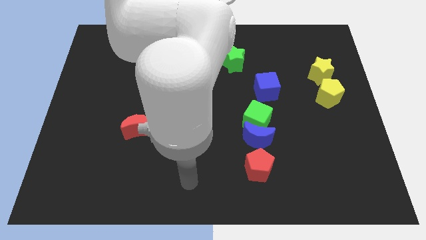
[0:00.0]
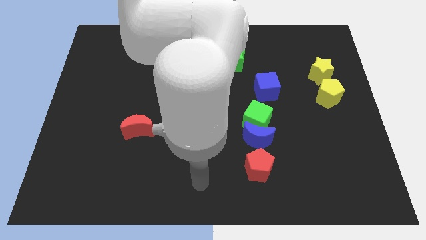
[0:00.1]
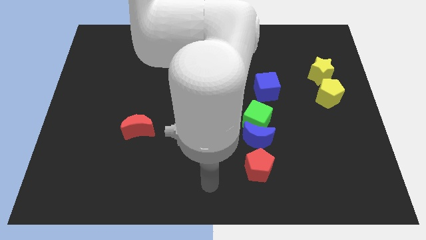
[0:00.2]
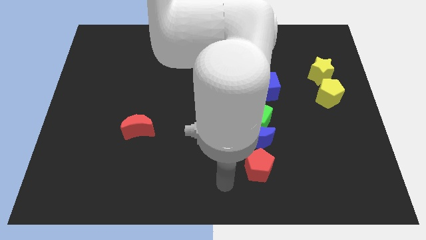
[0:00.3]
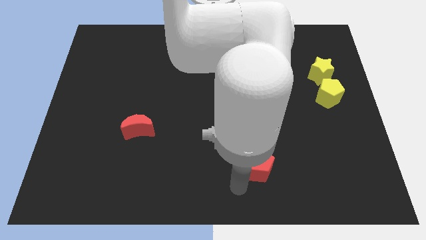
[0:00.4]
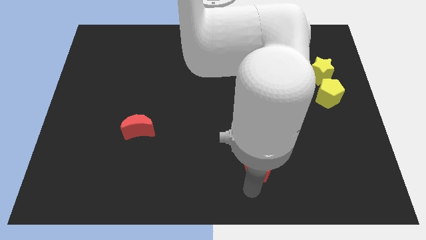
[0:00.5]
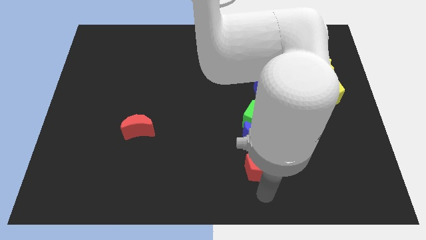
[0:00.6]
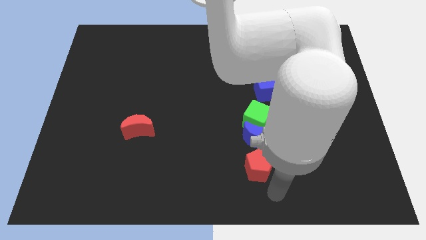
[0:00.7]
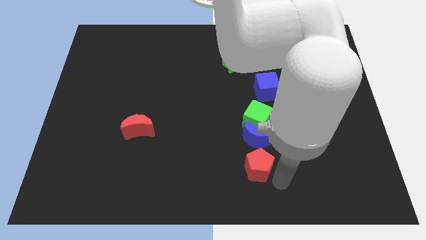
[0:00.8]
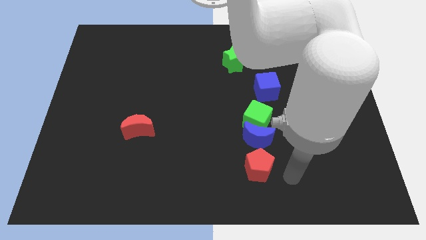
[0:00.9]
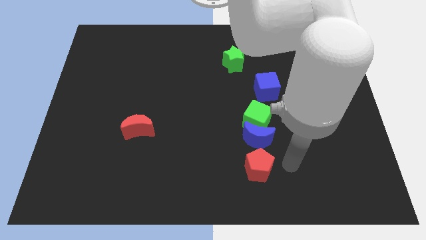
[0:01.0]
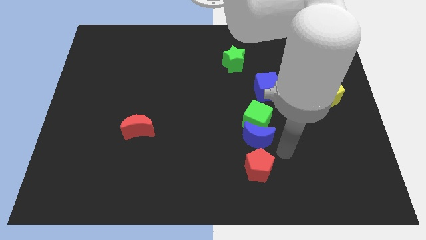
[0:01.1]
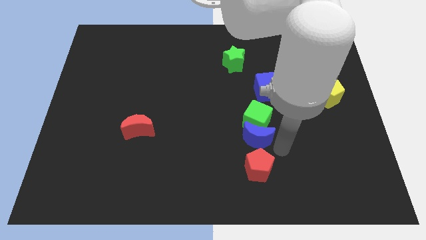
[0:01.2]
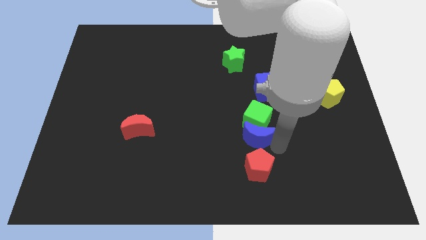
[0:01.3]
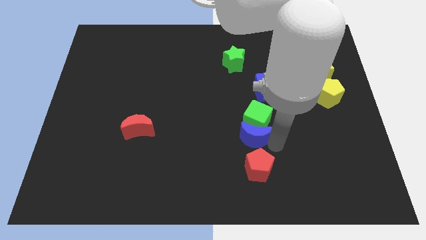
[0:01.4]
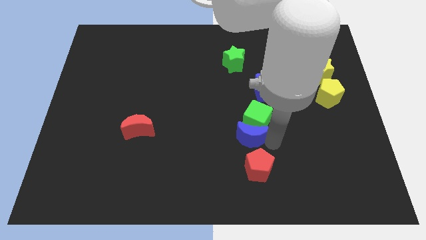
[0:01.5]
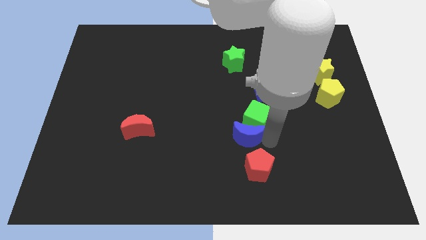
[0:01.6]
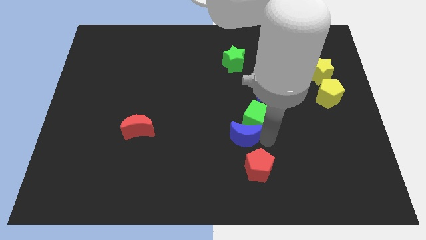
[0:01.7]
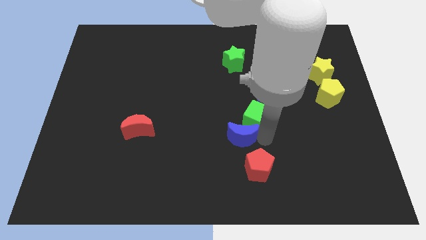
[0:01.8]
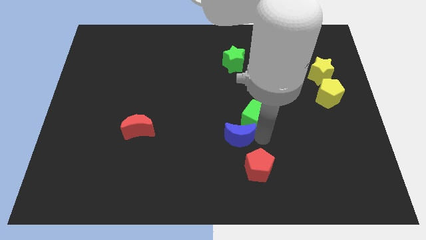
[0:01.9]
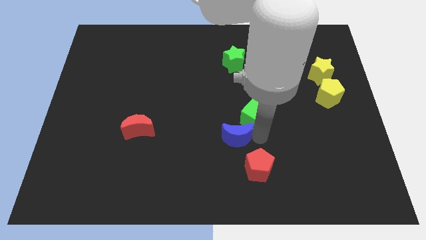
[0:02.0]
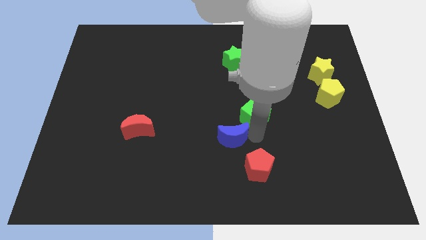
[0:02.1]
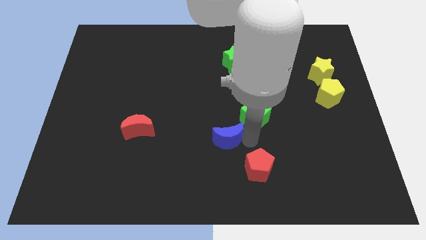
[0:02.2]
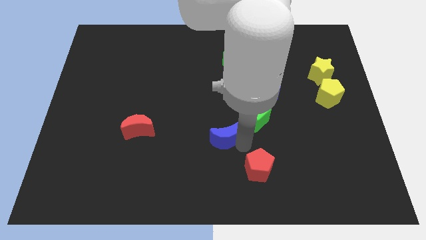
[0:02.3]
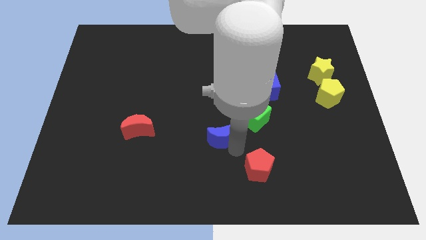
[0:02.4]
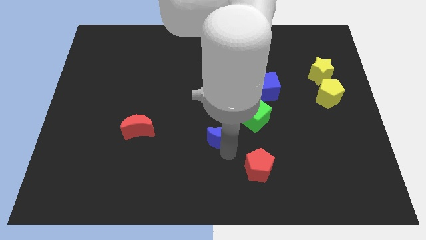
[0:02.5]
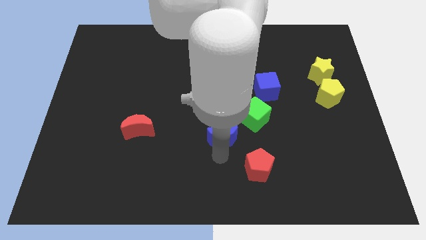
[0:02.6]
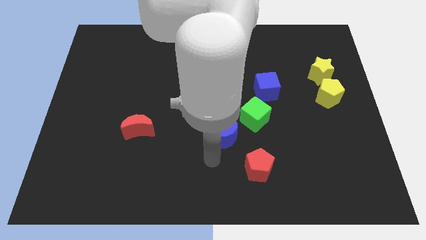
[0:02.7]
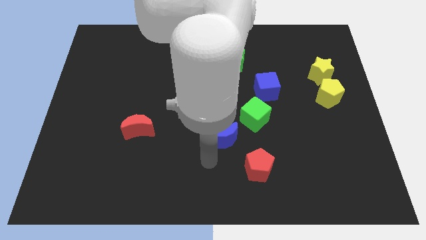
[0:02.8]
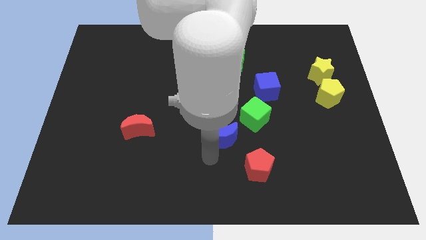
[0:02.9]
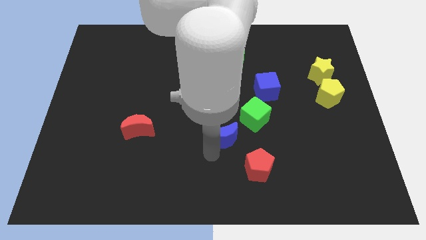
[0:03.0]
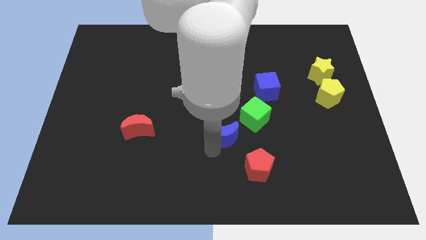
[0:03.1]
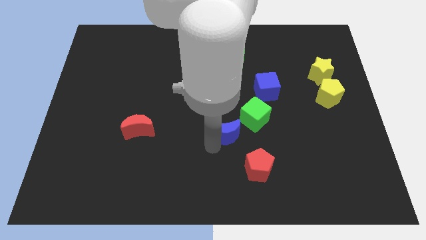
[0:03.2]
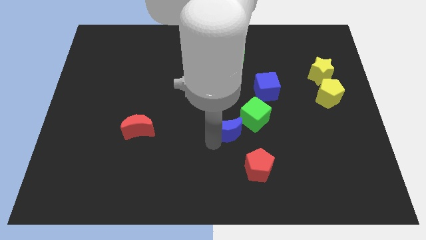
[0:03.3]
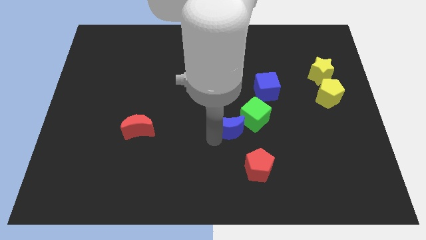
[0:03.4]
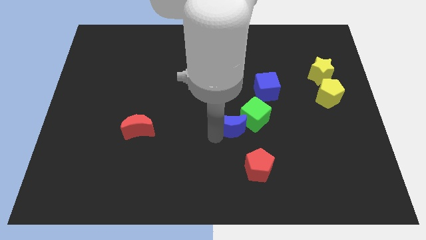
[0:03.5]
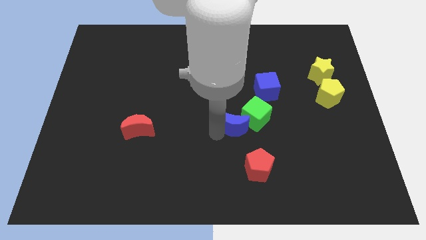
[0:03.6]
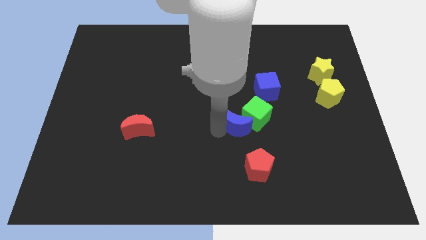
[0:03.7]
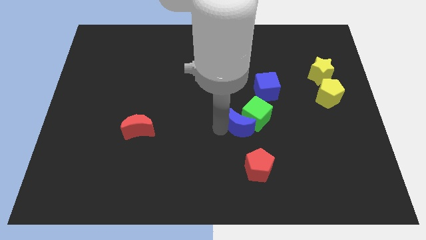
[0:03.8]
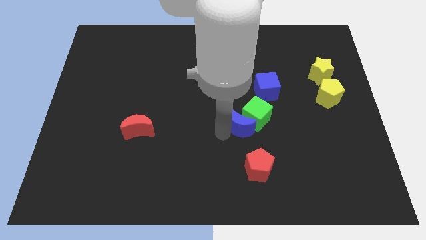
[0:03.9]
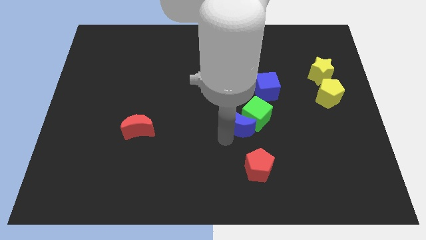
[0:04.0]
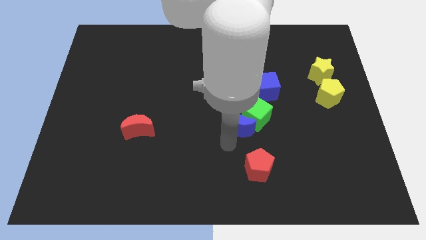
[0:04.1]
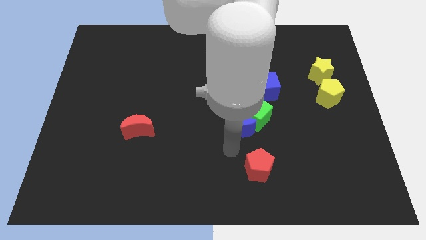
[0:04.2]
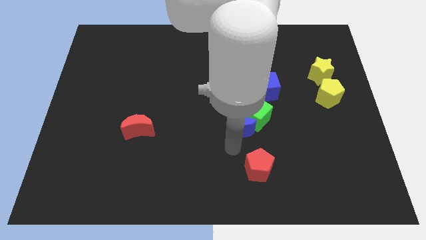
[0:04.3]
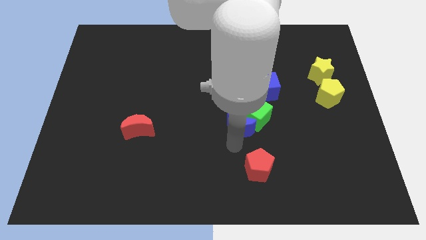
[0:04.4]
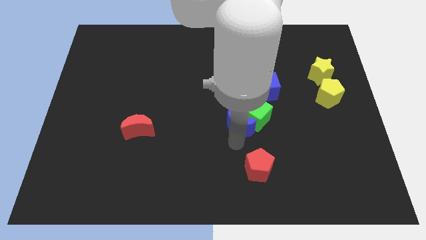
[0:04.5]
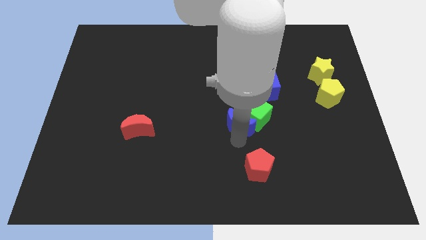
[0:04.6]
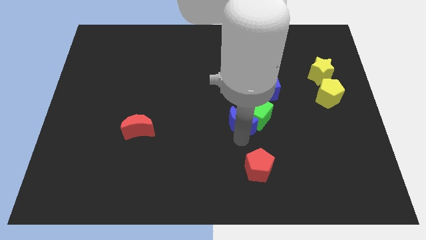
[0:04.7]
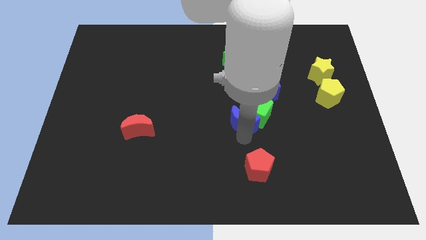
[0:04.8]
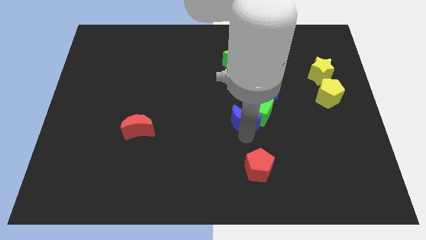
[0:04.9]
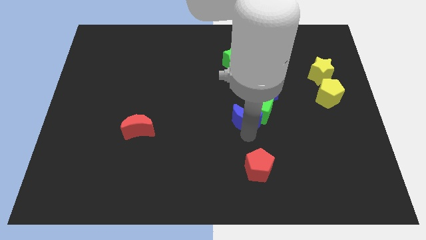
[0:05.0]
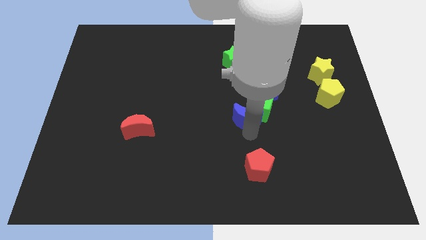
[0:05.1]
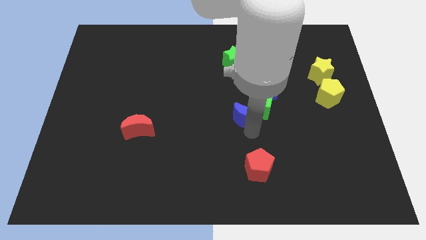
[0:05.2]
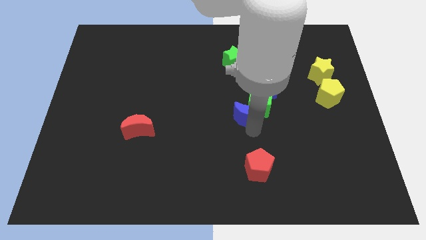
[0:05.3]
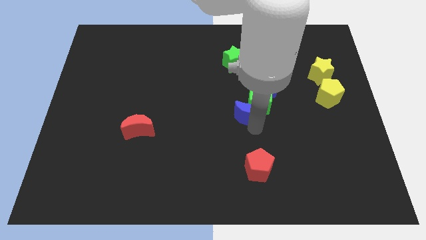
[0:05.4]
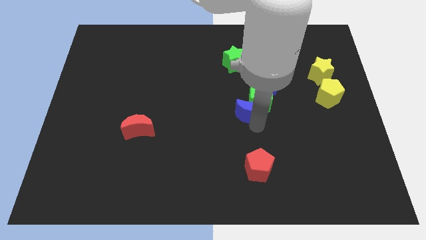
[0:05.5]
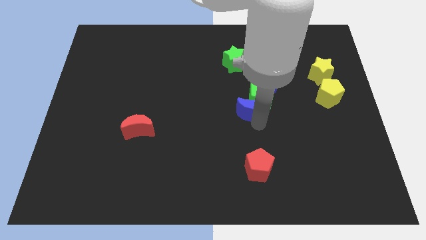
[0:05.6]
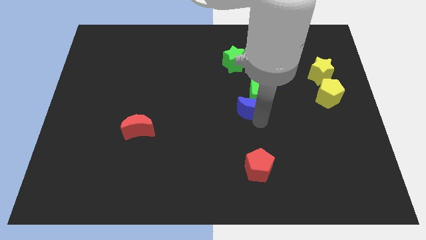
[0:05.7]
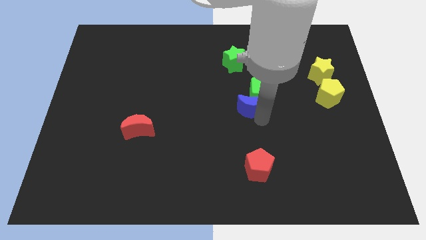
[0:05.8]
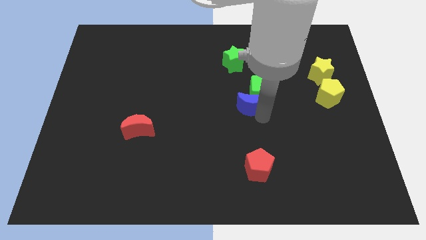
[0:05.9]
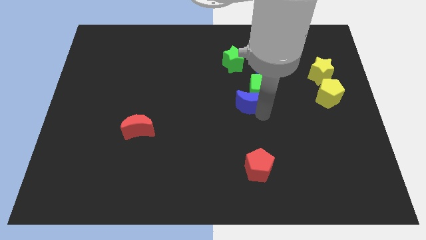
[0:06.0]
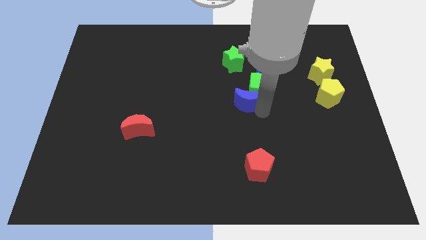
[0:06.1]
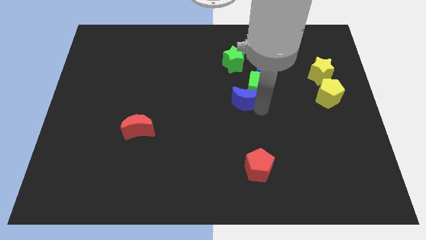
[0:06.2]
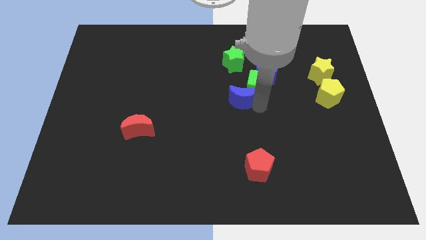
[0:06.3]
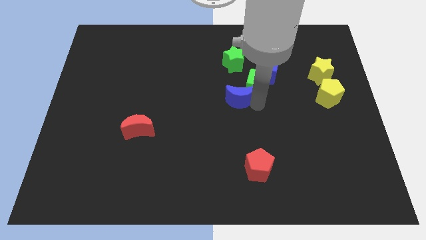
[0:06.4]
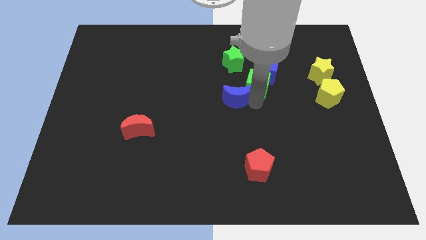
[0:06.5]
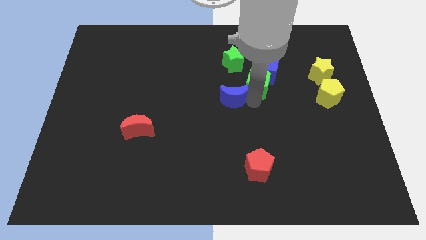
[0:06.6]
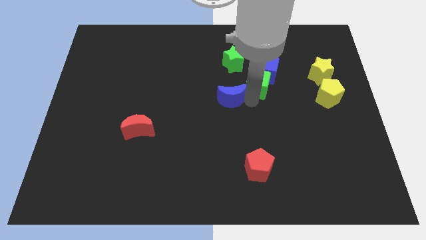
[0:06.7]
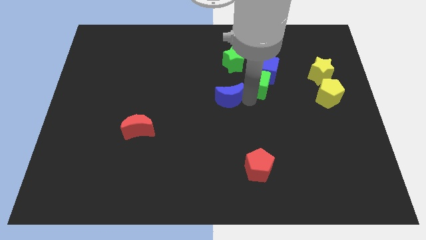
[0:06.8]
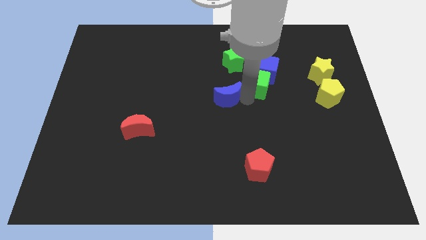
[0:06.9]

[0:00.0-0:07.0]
separate the blue moon from the green cube and red pentagon

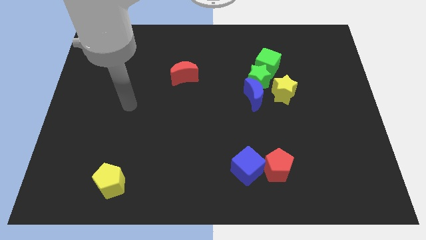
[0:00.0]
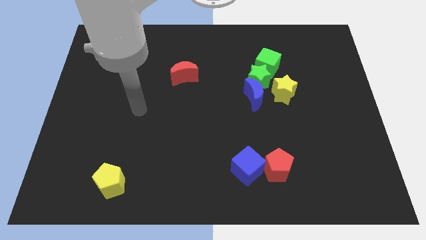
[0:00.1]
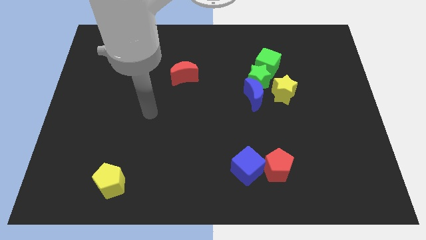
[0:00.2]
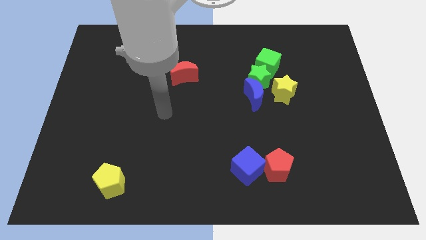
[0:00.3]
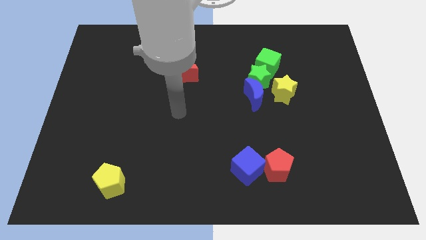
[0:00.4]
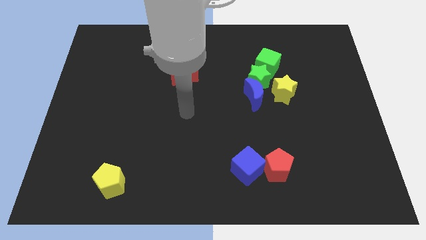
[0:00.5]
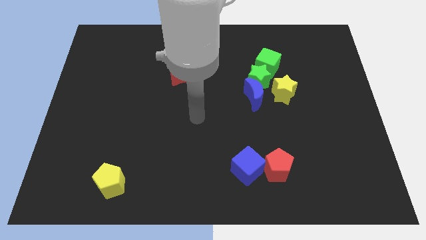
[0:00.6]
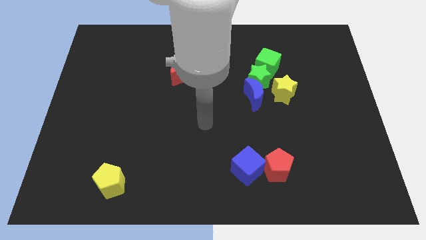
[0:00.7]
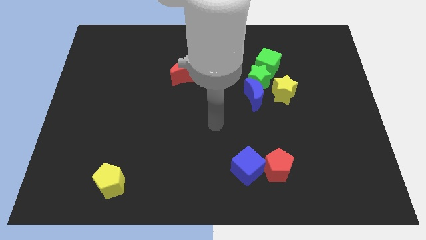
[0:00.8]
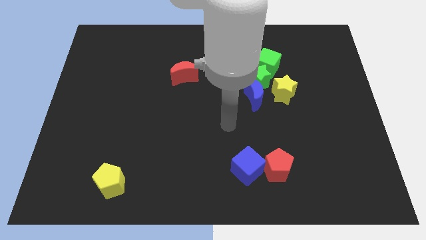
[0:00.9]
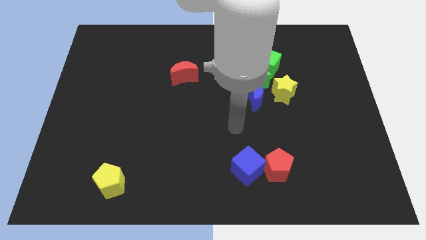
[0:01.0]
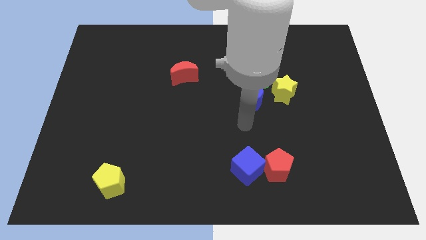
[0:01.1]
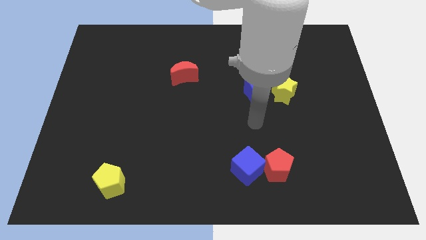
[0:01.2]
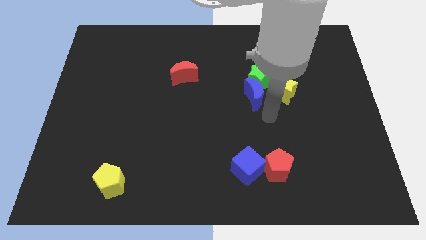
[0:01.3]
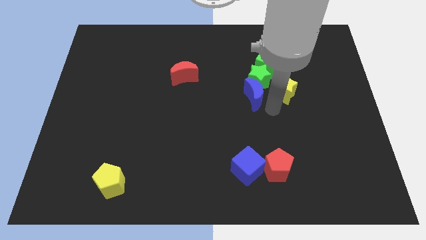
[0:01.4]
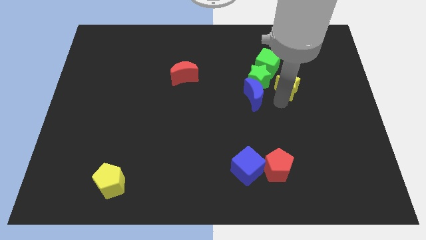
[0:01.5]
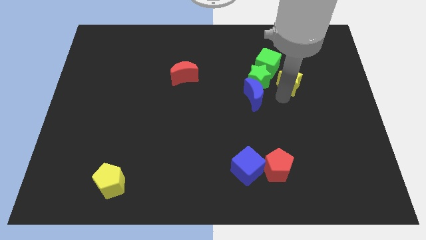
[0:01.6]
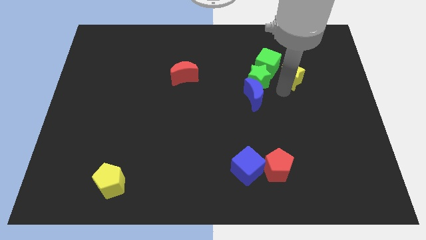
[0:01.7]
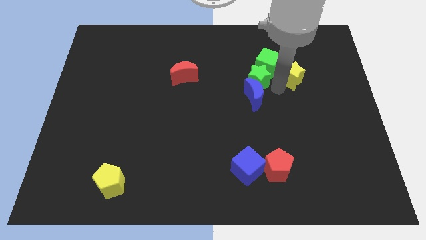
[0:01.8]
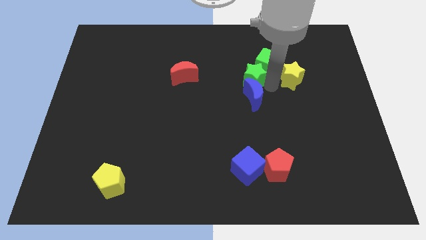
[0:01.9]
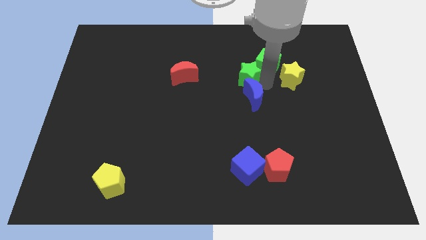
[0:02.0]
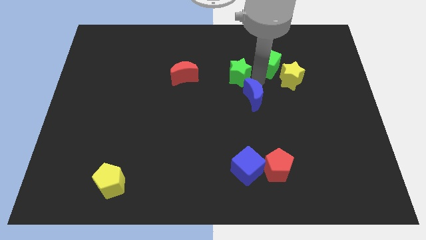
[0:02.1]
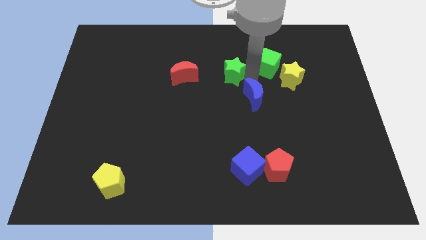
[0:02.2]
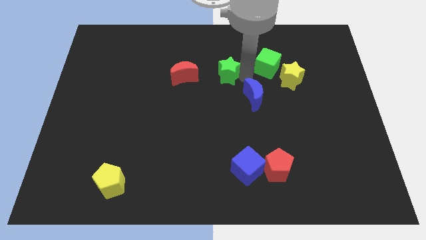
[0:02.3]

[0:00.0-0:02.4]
separate the green star from the blue moon, green cube, and yellow star
